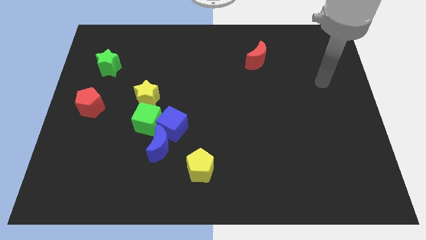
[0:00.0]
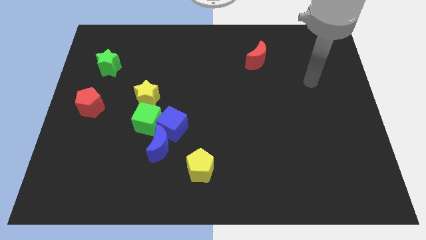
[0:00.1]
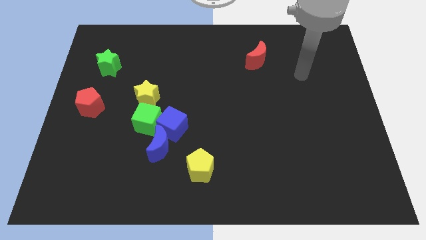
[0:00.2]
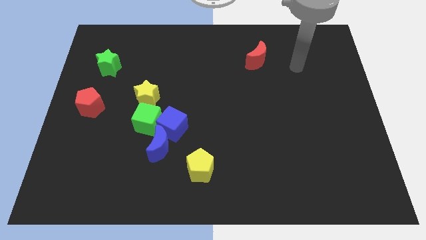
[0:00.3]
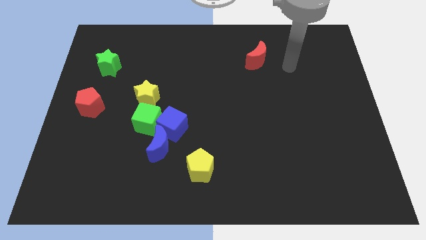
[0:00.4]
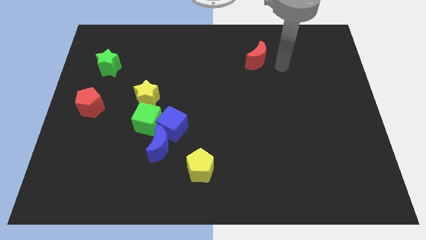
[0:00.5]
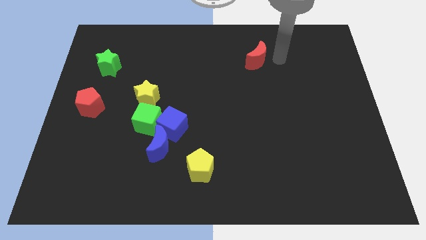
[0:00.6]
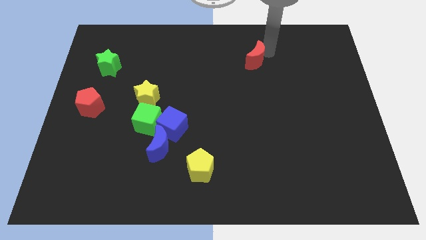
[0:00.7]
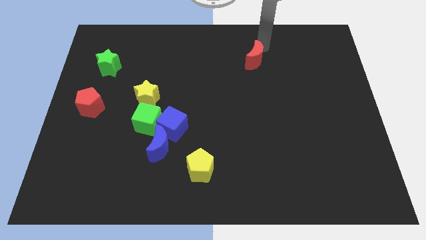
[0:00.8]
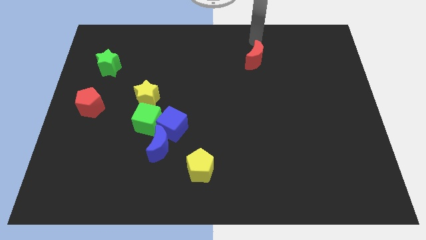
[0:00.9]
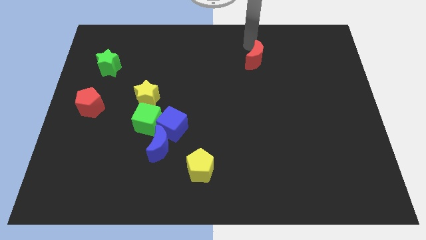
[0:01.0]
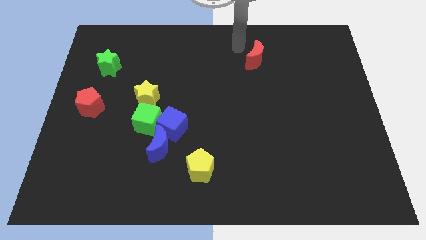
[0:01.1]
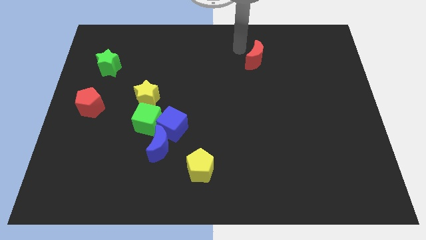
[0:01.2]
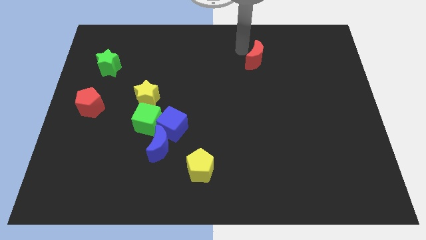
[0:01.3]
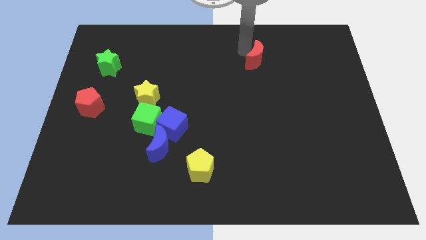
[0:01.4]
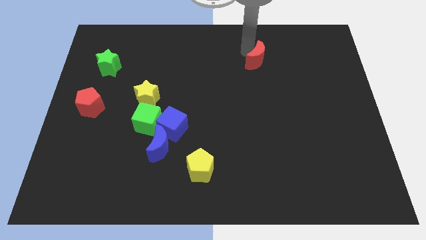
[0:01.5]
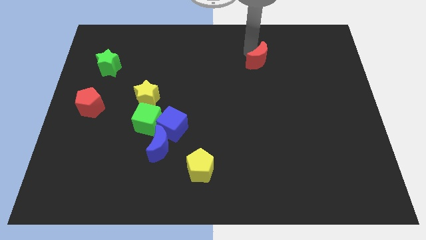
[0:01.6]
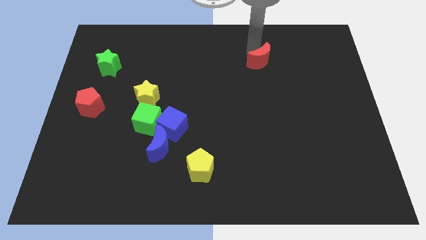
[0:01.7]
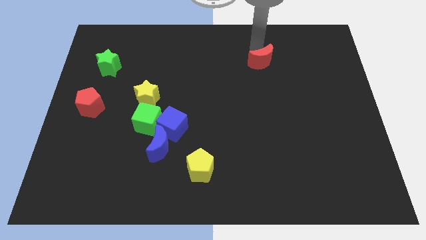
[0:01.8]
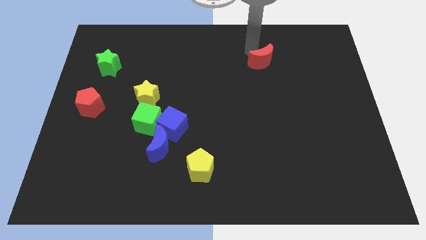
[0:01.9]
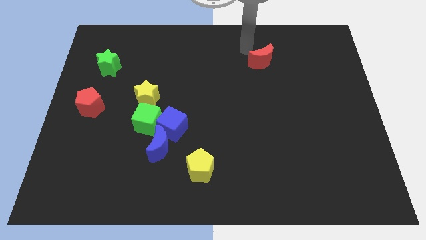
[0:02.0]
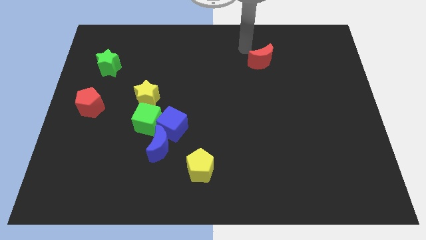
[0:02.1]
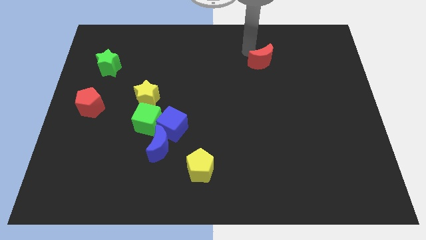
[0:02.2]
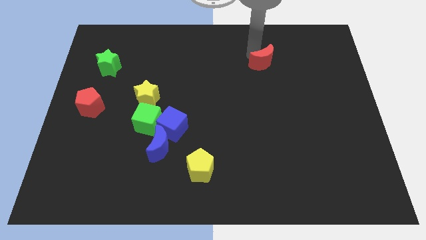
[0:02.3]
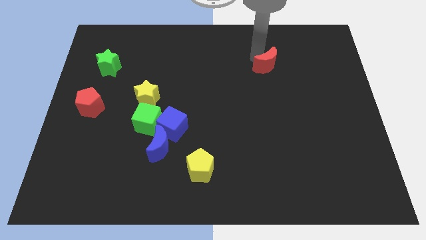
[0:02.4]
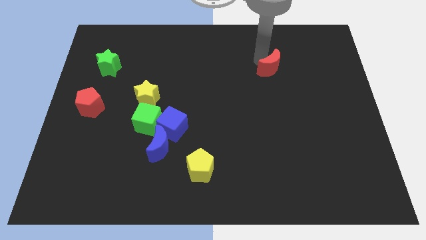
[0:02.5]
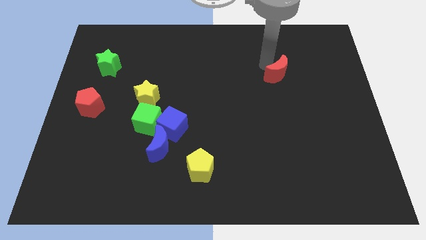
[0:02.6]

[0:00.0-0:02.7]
slide the red moon a little bit down and to the right

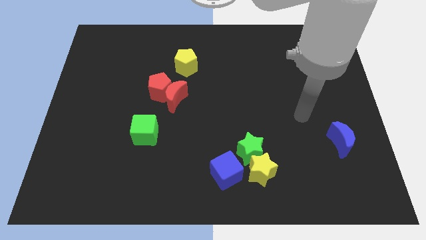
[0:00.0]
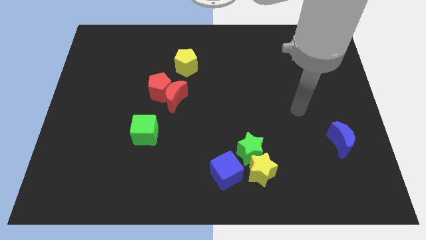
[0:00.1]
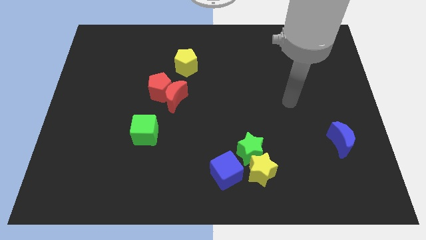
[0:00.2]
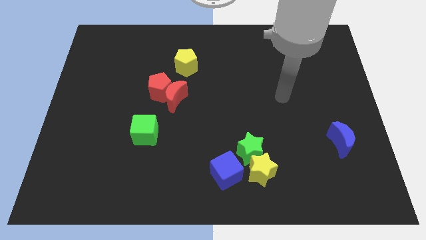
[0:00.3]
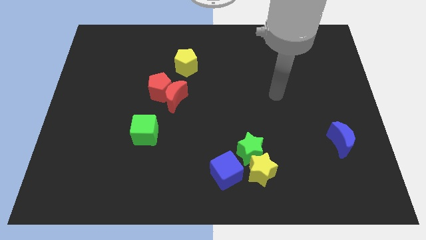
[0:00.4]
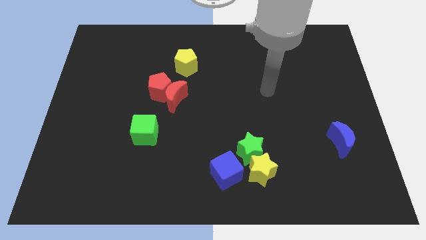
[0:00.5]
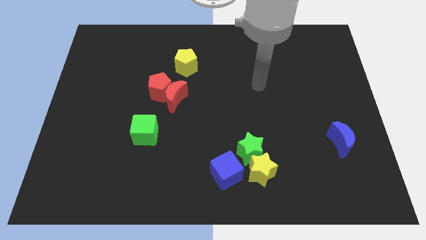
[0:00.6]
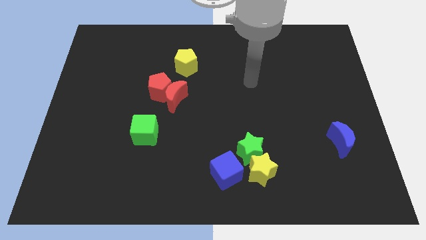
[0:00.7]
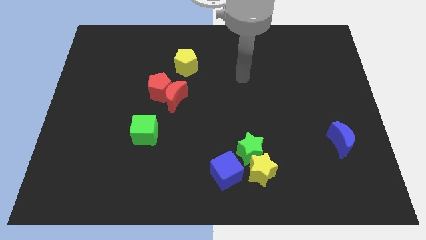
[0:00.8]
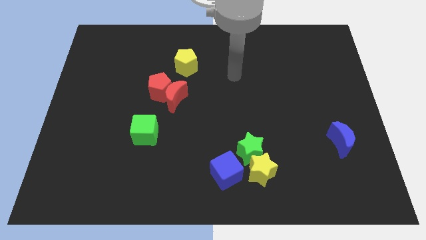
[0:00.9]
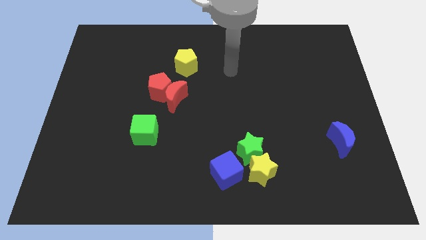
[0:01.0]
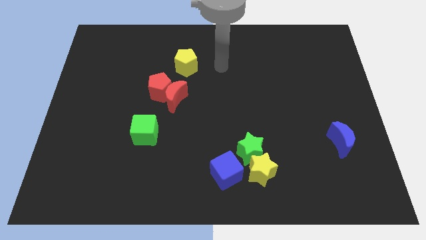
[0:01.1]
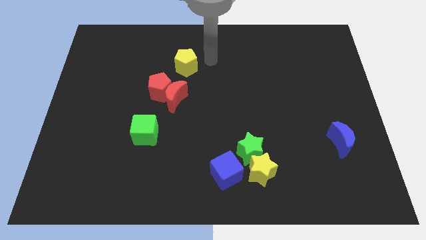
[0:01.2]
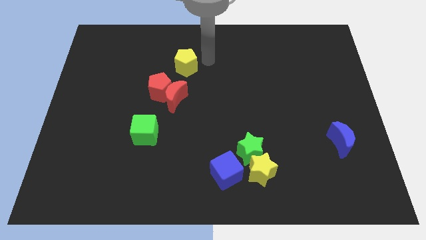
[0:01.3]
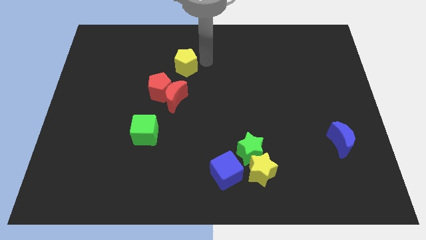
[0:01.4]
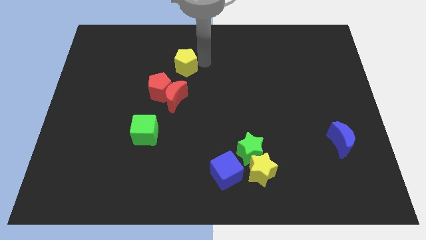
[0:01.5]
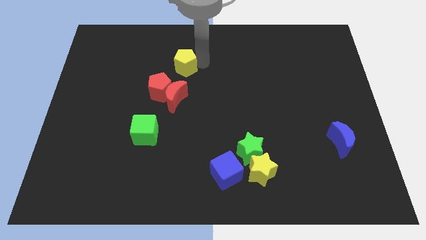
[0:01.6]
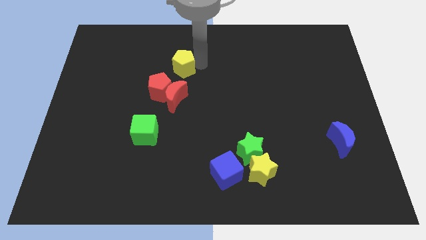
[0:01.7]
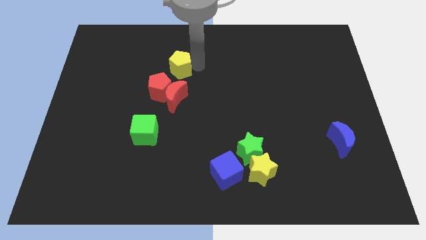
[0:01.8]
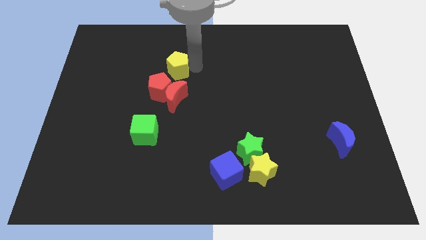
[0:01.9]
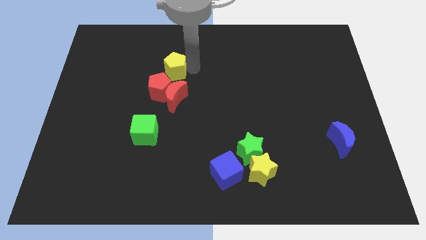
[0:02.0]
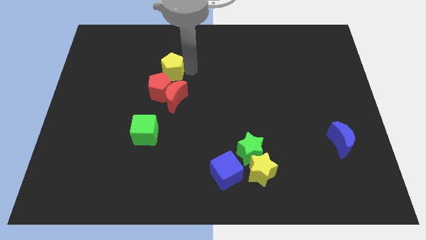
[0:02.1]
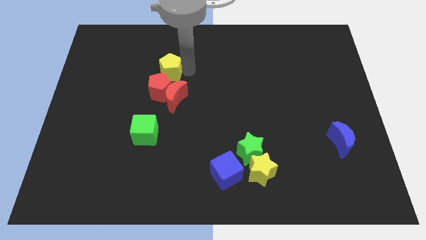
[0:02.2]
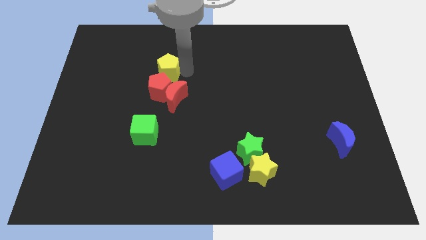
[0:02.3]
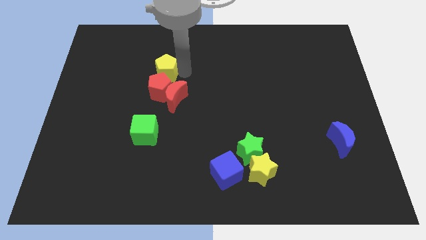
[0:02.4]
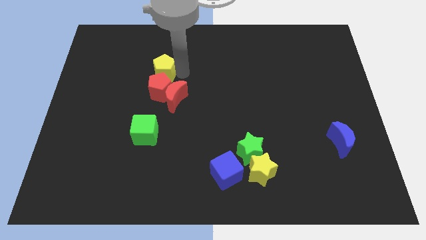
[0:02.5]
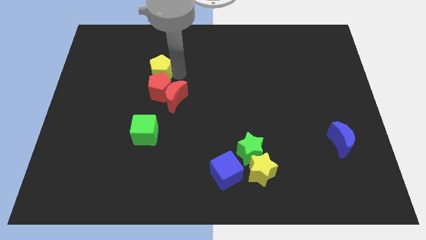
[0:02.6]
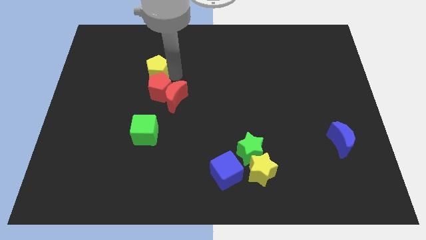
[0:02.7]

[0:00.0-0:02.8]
slide the yellow pentagon a bit to the left

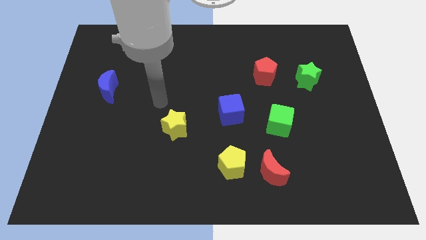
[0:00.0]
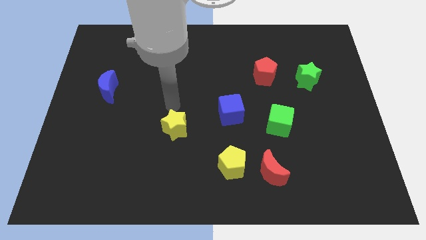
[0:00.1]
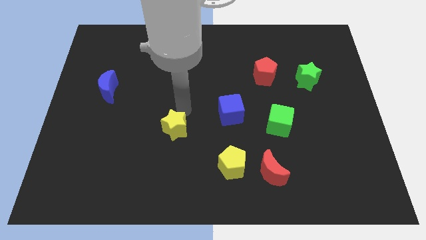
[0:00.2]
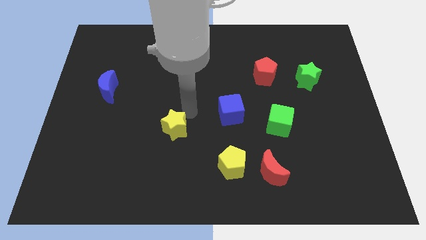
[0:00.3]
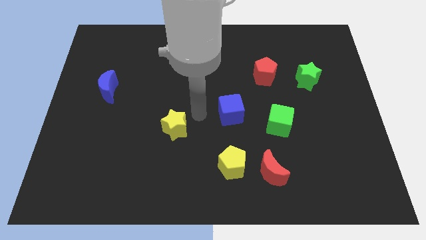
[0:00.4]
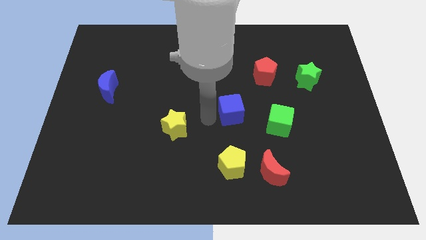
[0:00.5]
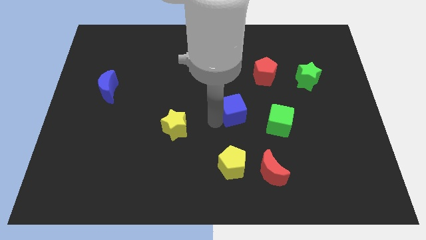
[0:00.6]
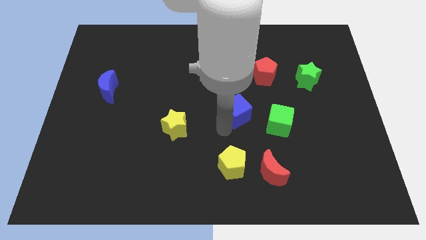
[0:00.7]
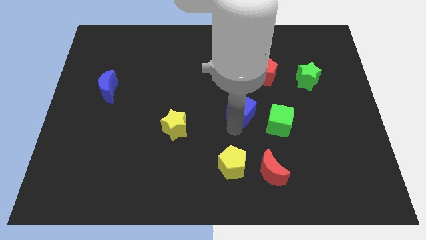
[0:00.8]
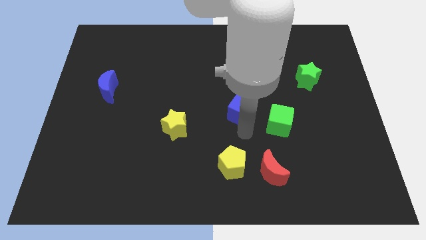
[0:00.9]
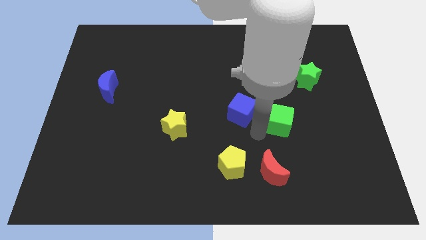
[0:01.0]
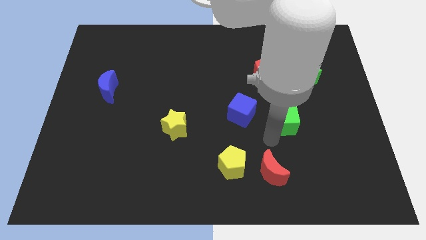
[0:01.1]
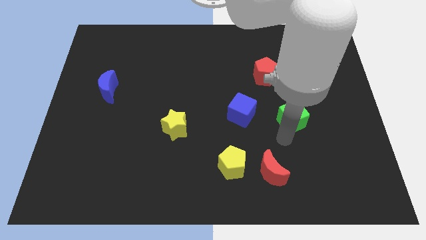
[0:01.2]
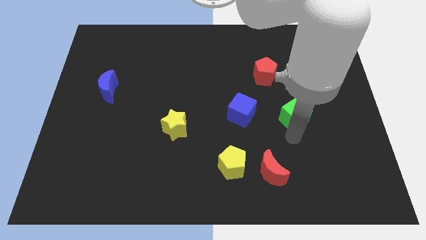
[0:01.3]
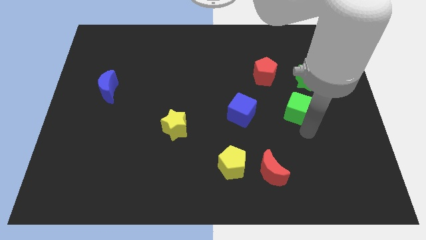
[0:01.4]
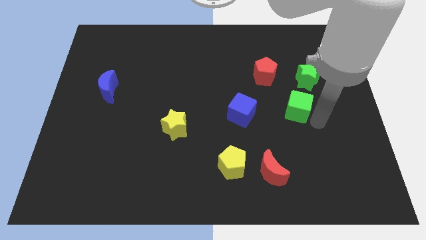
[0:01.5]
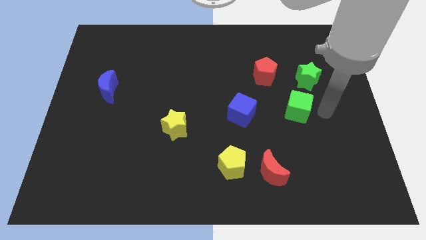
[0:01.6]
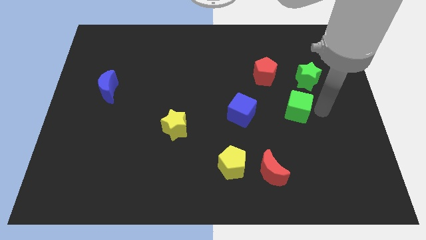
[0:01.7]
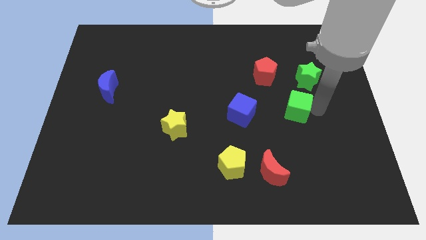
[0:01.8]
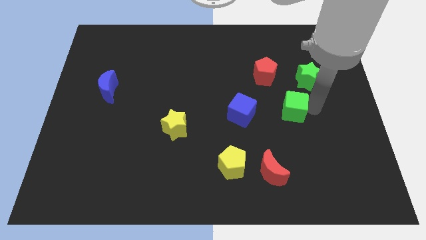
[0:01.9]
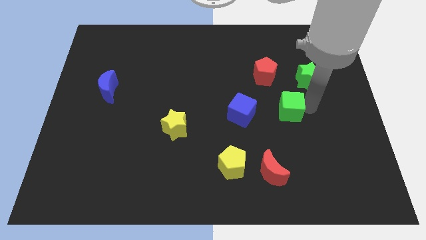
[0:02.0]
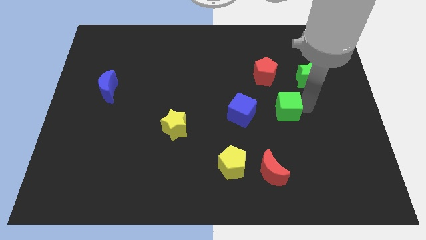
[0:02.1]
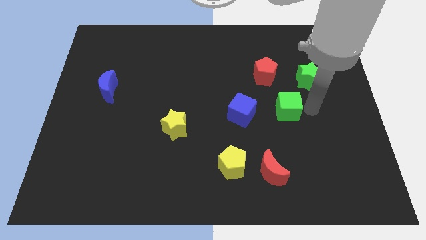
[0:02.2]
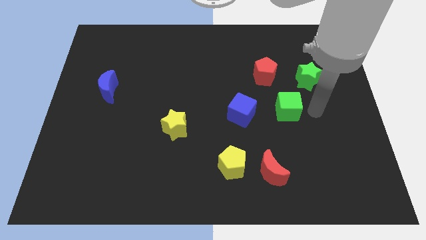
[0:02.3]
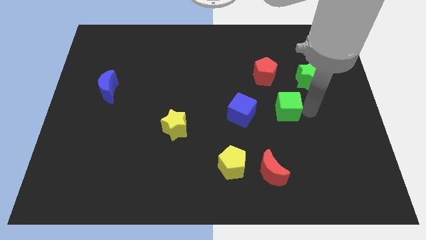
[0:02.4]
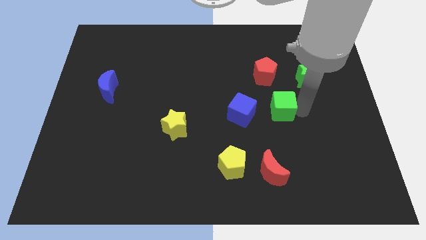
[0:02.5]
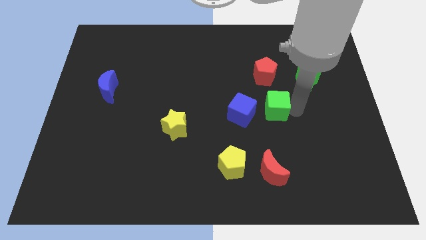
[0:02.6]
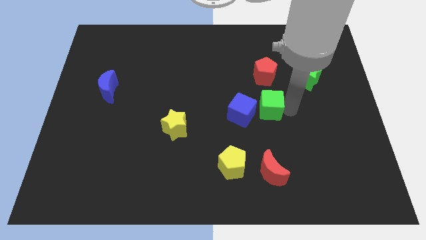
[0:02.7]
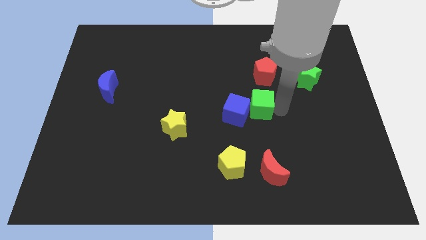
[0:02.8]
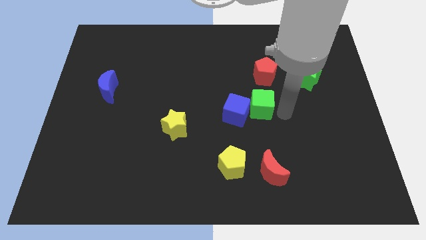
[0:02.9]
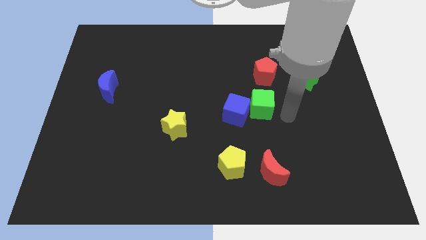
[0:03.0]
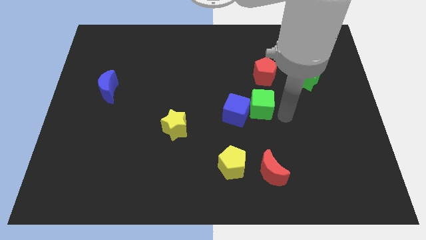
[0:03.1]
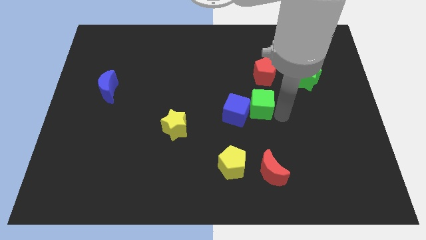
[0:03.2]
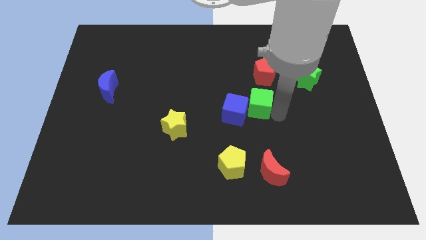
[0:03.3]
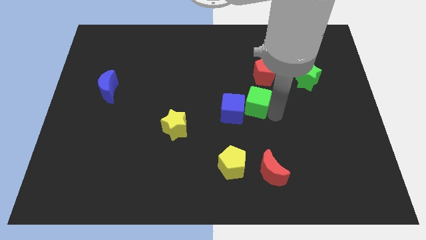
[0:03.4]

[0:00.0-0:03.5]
slightly slide the green cube up and to the left diagonally
